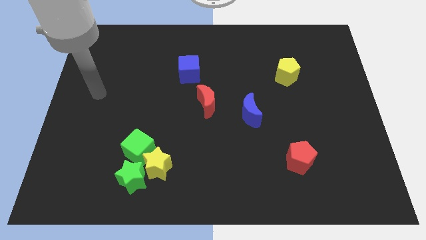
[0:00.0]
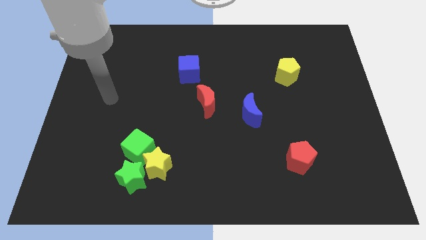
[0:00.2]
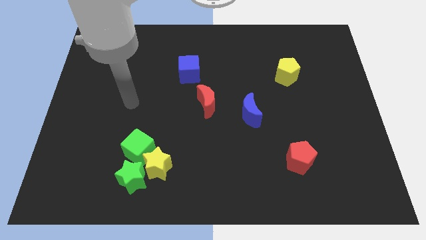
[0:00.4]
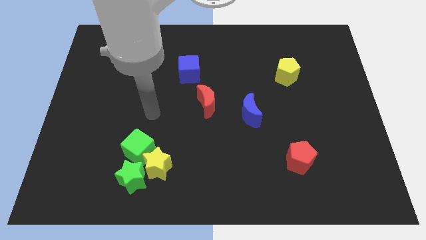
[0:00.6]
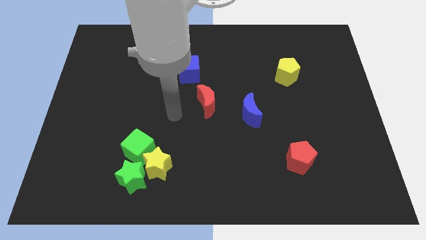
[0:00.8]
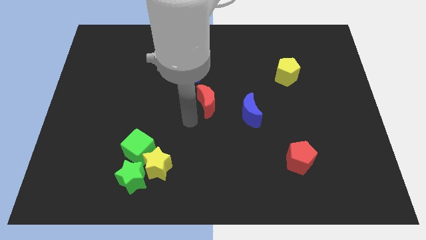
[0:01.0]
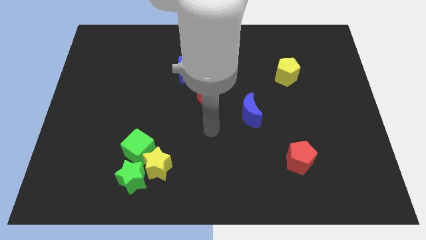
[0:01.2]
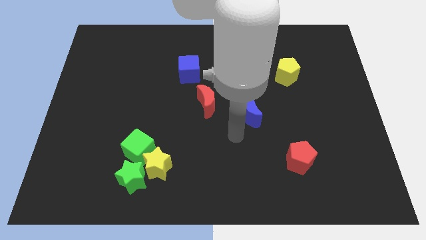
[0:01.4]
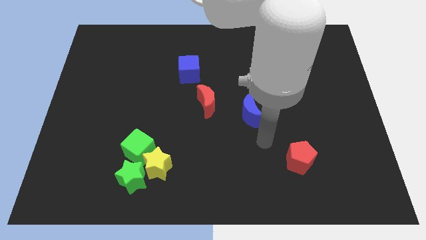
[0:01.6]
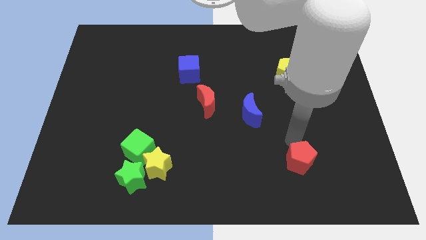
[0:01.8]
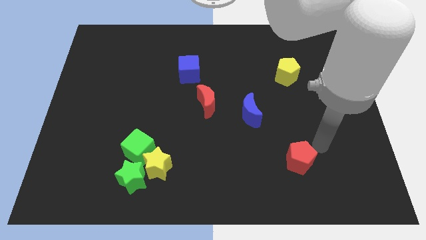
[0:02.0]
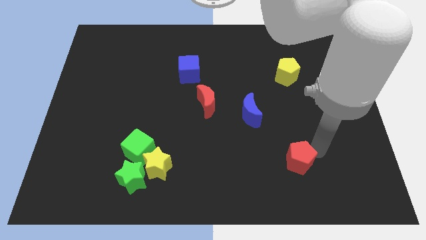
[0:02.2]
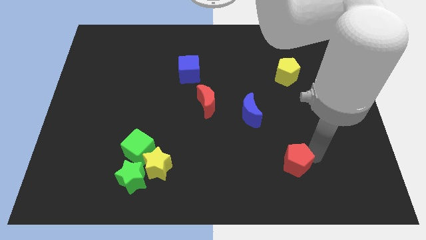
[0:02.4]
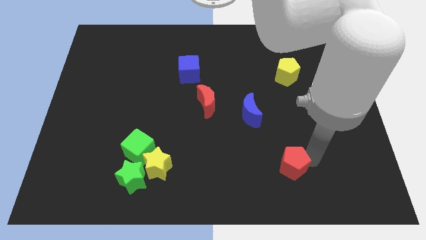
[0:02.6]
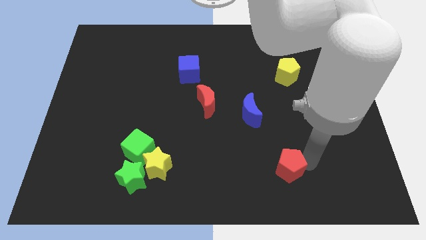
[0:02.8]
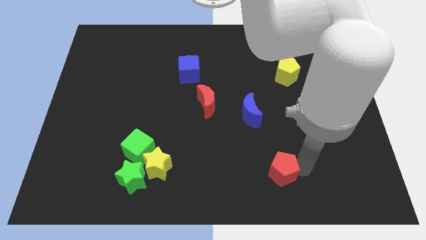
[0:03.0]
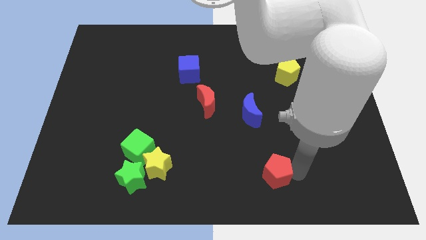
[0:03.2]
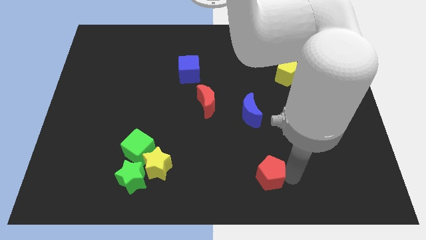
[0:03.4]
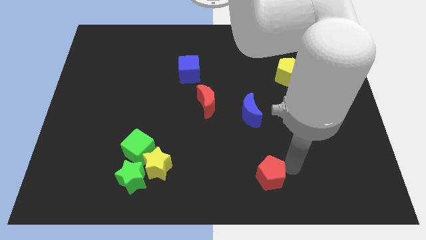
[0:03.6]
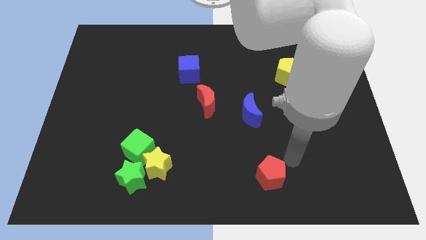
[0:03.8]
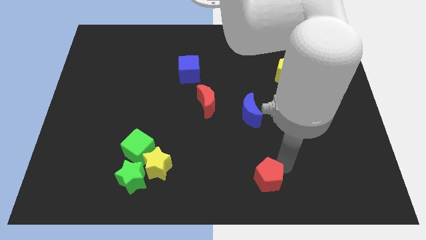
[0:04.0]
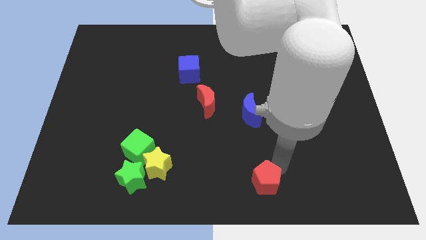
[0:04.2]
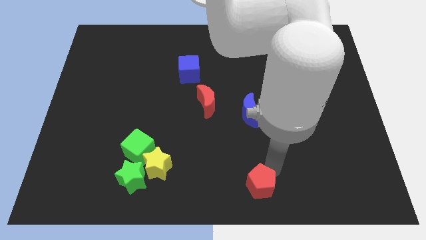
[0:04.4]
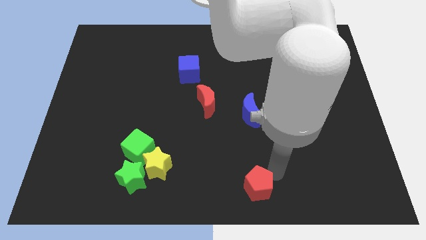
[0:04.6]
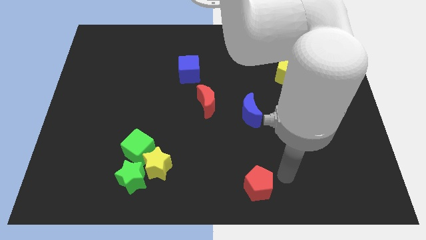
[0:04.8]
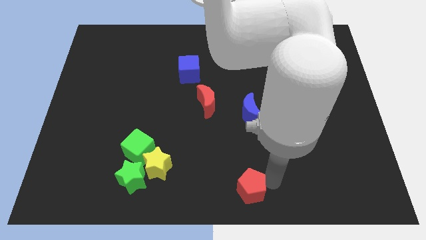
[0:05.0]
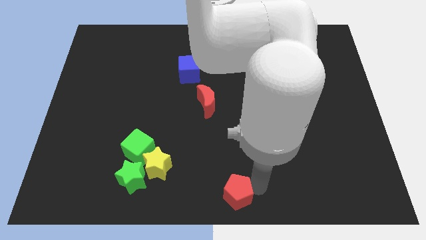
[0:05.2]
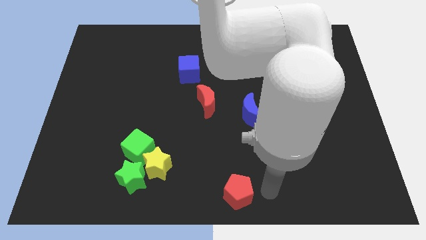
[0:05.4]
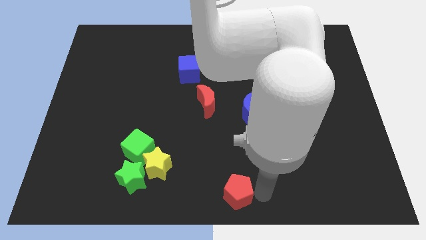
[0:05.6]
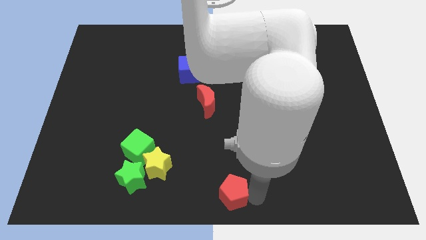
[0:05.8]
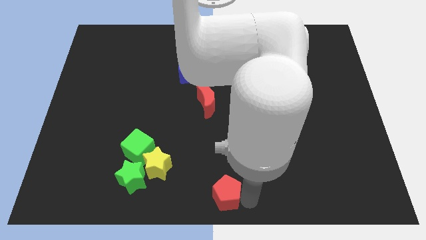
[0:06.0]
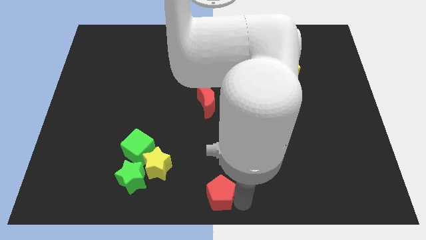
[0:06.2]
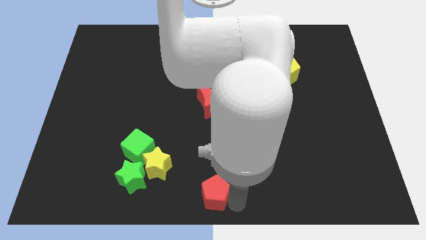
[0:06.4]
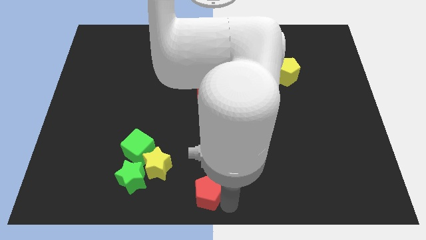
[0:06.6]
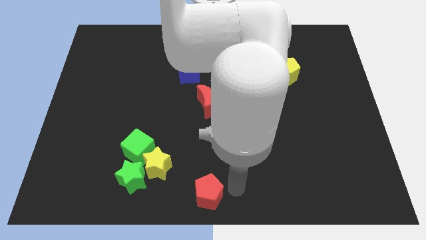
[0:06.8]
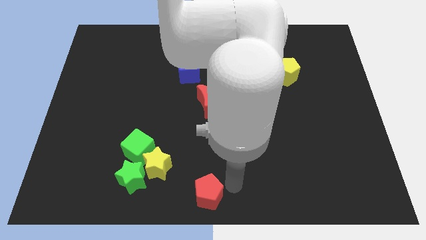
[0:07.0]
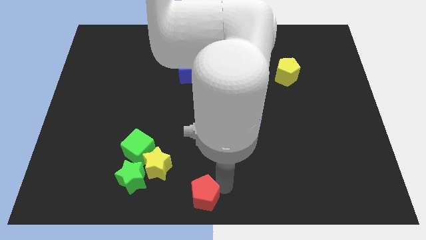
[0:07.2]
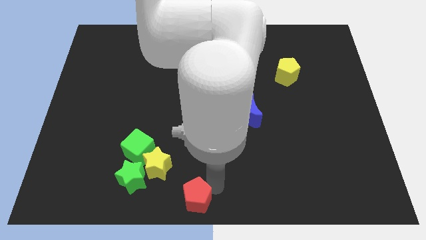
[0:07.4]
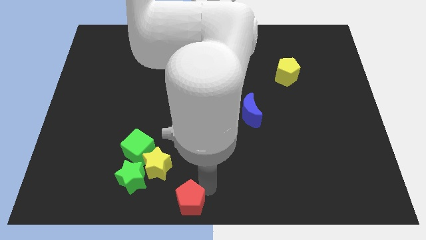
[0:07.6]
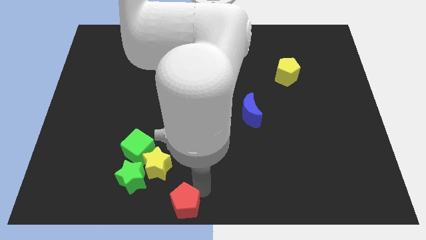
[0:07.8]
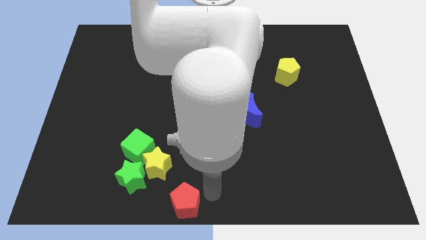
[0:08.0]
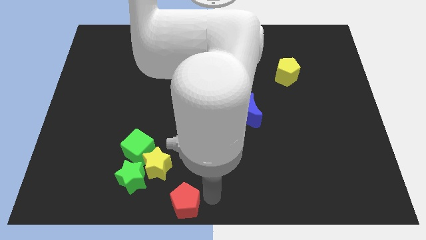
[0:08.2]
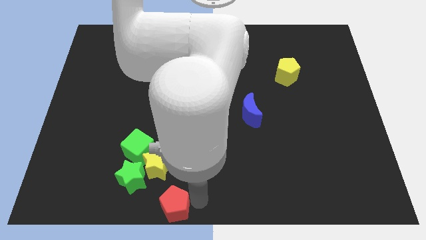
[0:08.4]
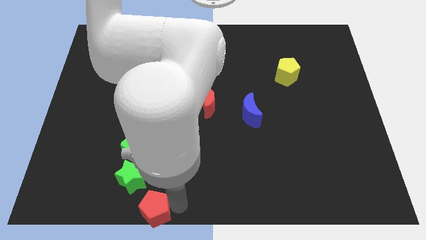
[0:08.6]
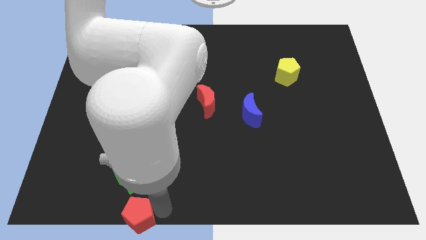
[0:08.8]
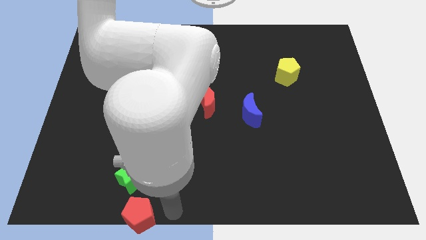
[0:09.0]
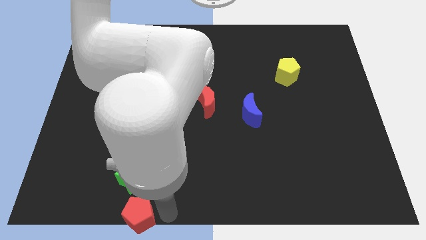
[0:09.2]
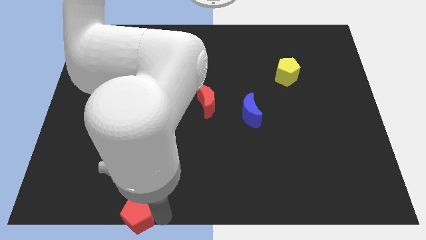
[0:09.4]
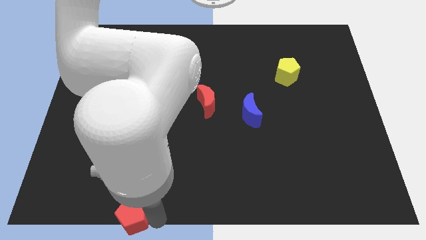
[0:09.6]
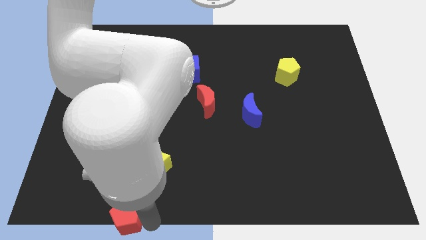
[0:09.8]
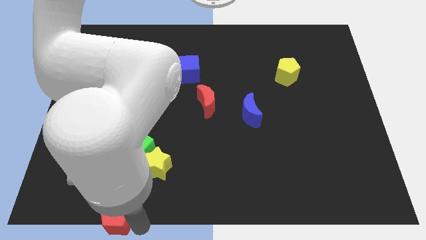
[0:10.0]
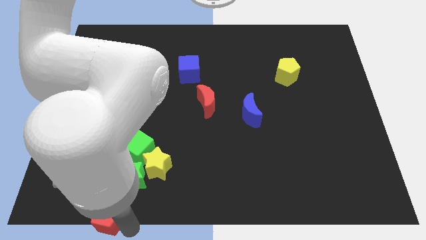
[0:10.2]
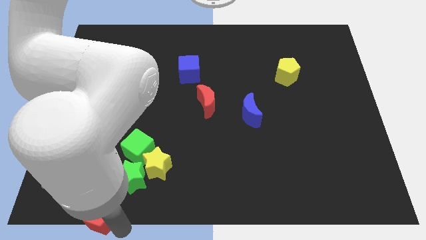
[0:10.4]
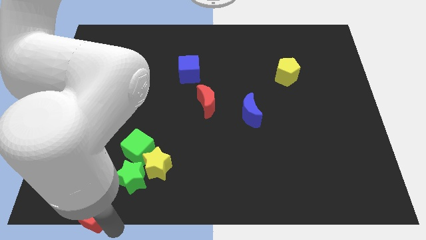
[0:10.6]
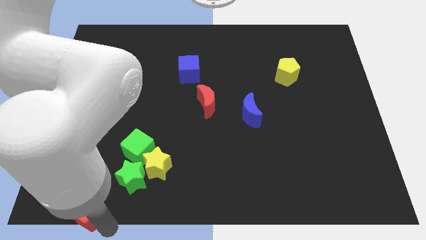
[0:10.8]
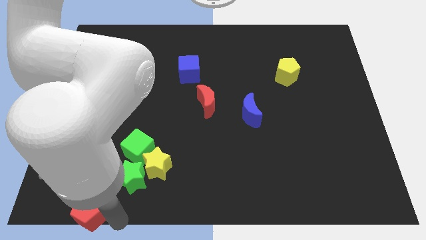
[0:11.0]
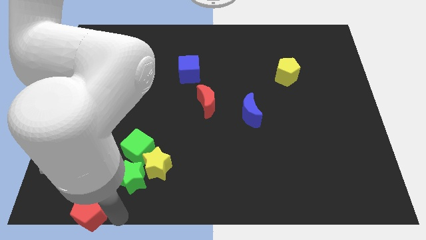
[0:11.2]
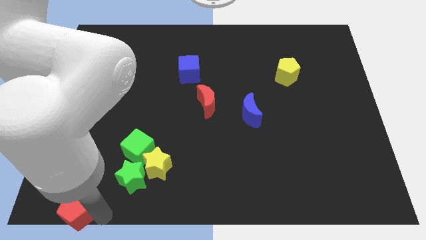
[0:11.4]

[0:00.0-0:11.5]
push the red pentagon to the bottom left

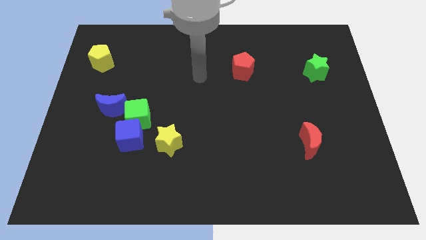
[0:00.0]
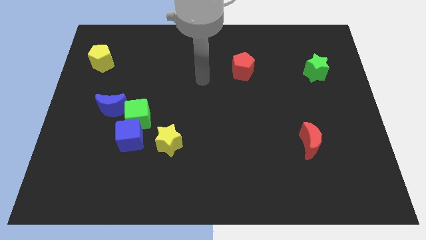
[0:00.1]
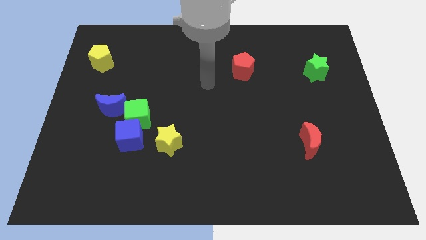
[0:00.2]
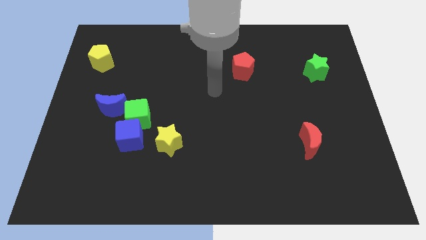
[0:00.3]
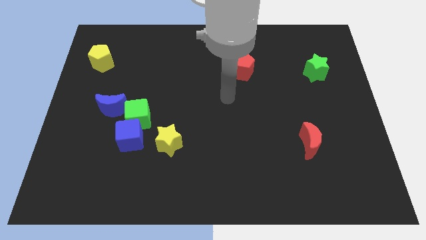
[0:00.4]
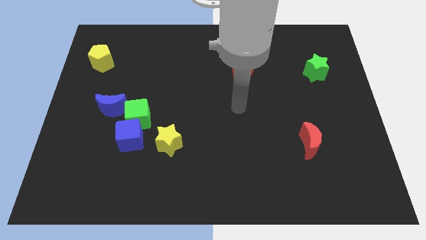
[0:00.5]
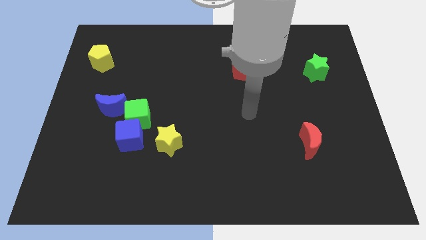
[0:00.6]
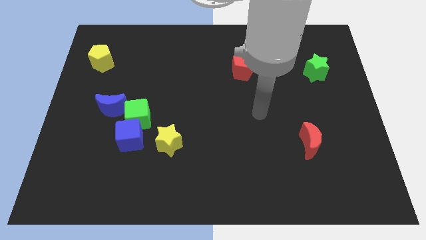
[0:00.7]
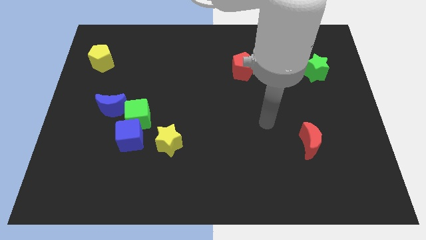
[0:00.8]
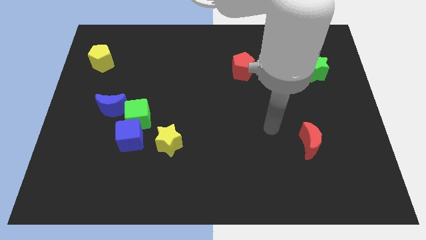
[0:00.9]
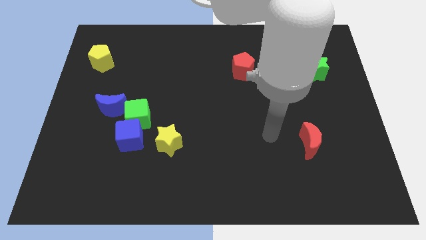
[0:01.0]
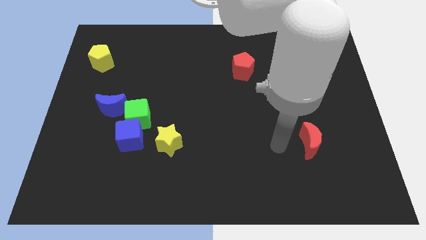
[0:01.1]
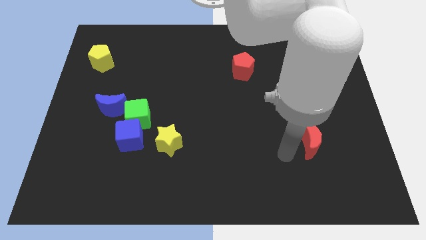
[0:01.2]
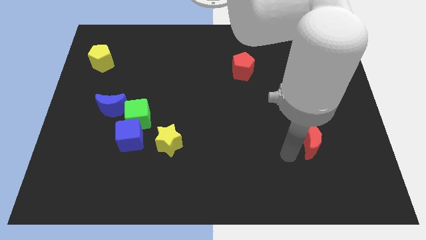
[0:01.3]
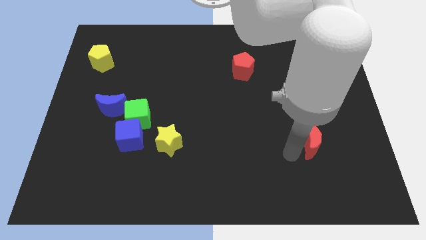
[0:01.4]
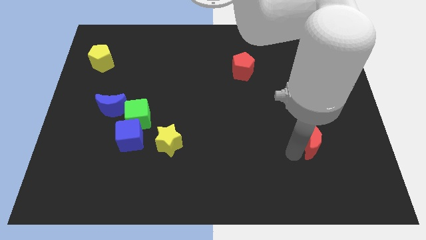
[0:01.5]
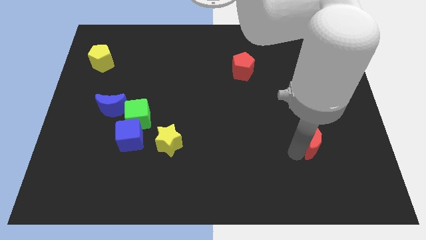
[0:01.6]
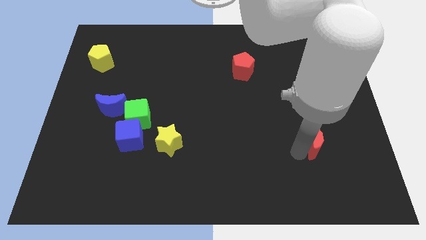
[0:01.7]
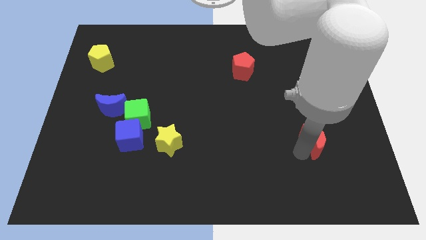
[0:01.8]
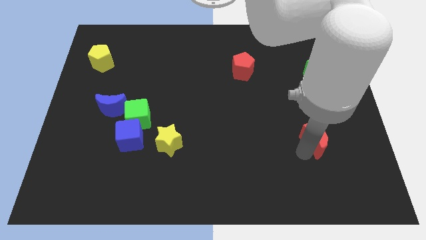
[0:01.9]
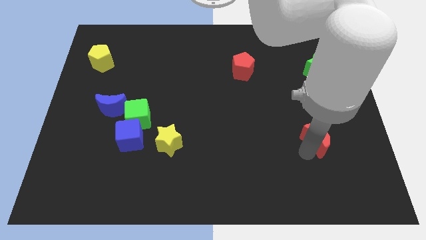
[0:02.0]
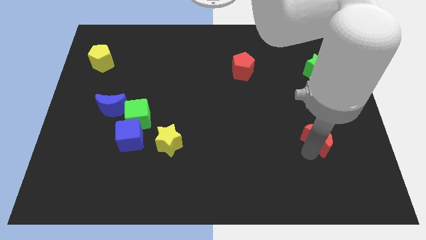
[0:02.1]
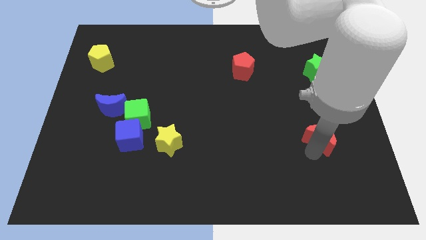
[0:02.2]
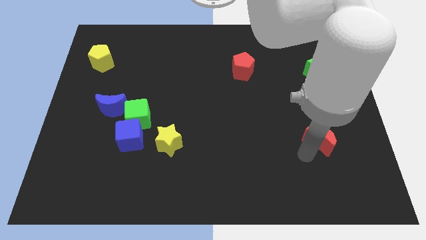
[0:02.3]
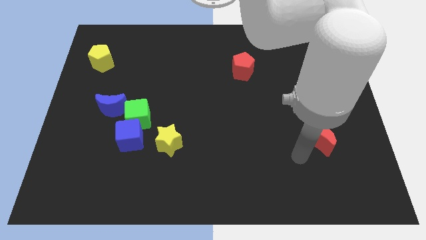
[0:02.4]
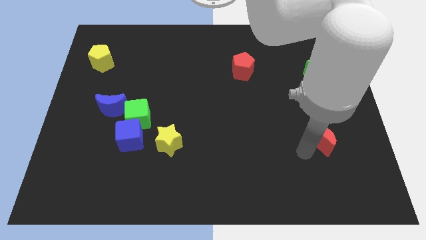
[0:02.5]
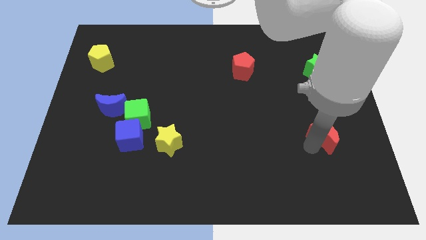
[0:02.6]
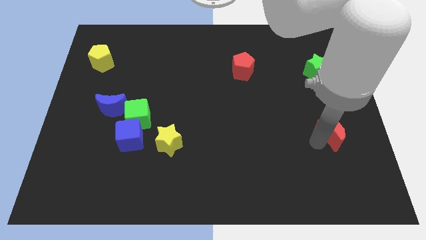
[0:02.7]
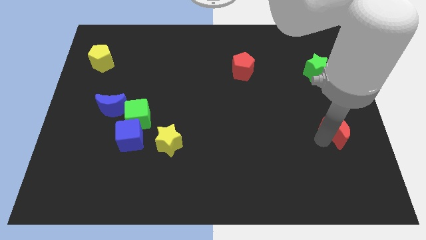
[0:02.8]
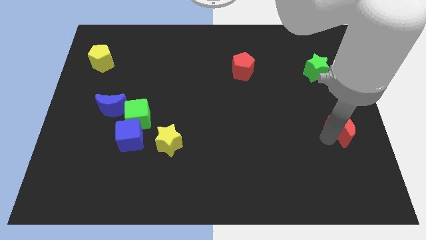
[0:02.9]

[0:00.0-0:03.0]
move the red moon to the right side of the board
